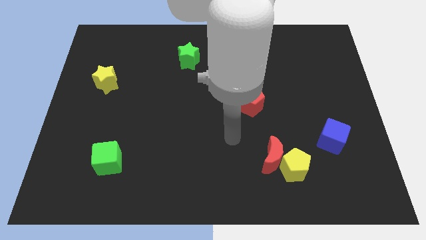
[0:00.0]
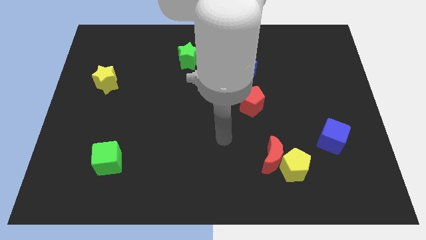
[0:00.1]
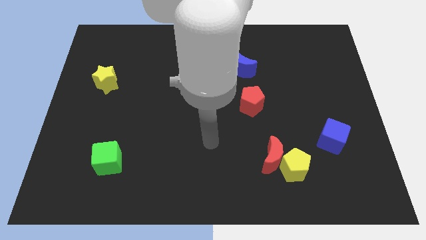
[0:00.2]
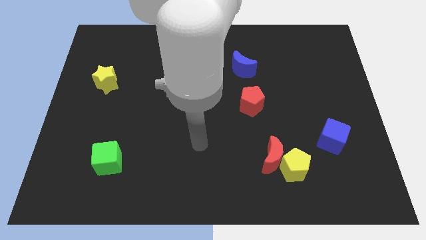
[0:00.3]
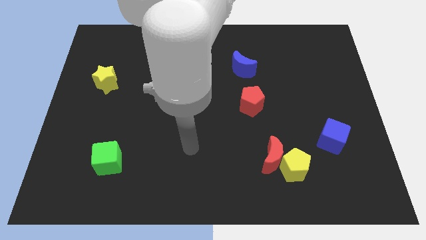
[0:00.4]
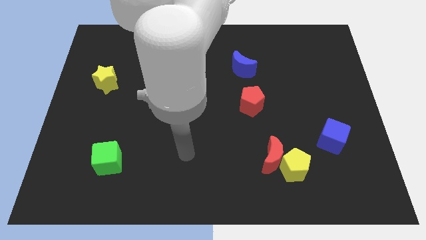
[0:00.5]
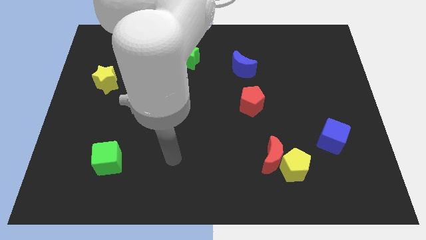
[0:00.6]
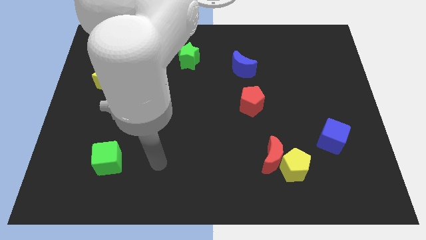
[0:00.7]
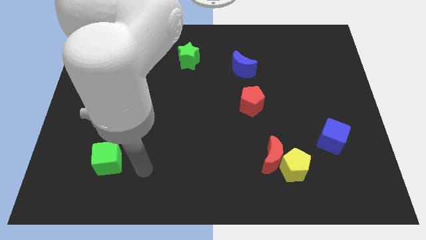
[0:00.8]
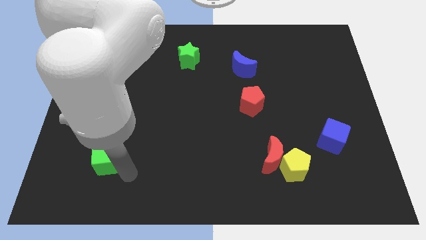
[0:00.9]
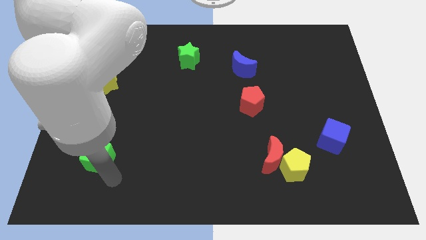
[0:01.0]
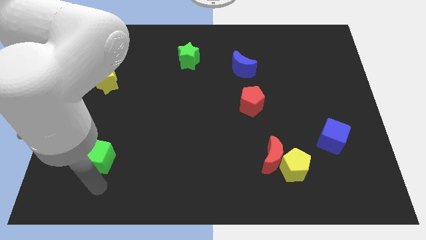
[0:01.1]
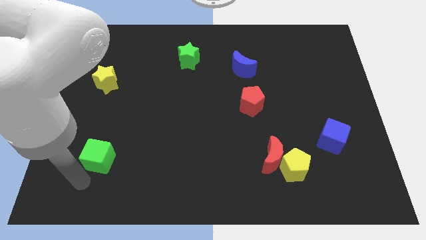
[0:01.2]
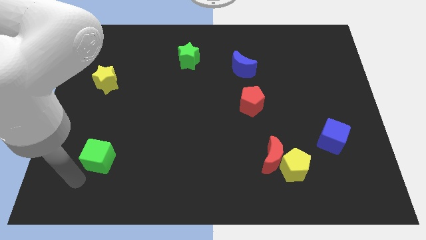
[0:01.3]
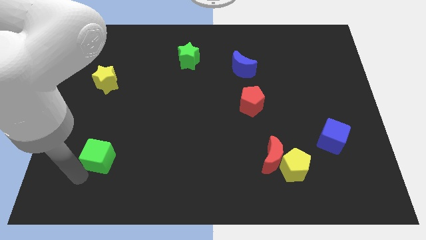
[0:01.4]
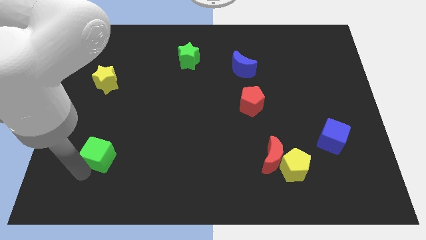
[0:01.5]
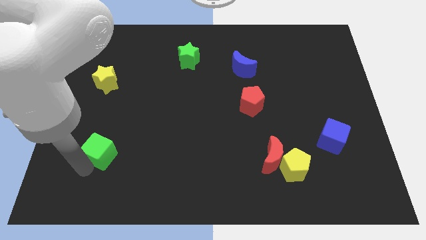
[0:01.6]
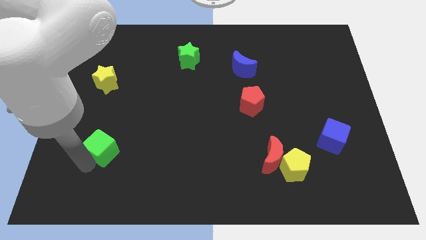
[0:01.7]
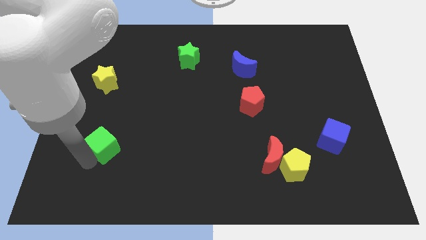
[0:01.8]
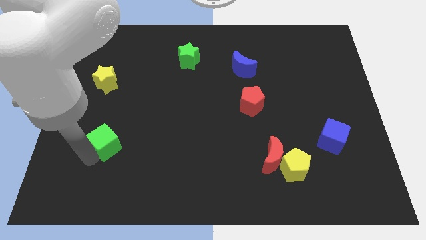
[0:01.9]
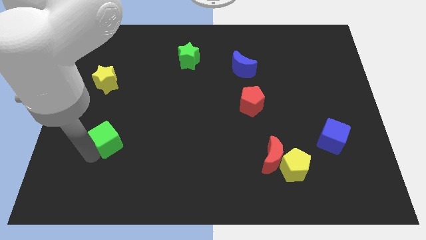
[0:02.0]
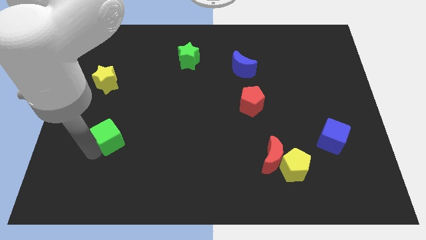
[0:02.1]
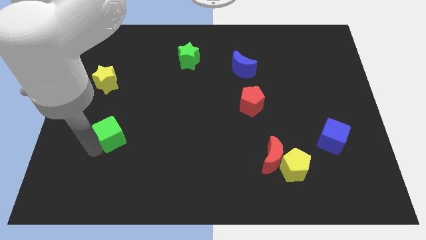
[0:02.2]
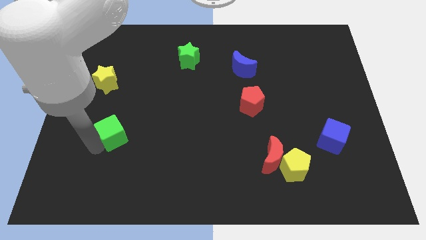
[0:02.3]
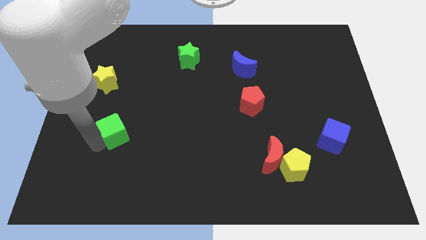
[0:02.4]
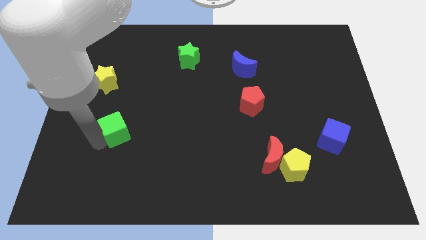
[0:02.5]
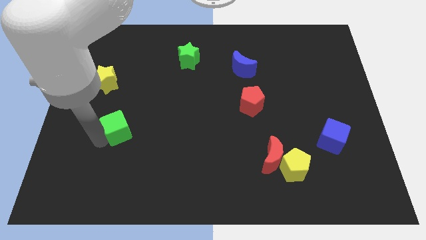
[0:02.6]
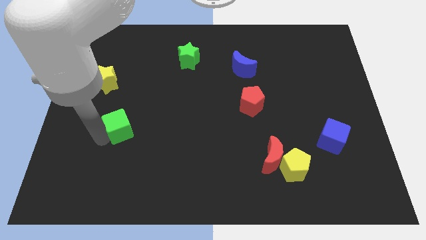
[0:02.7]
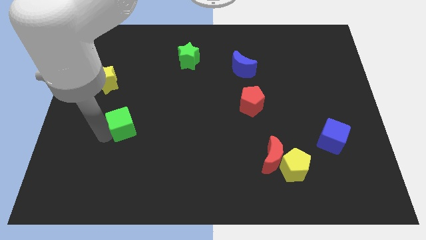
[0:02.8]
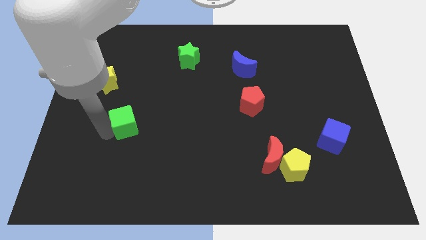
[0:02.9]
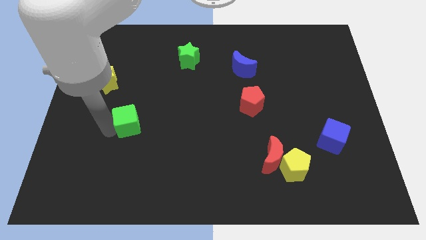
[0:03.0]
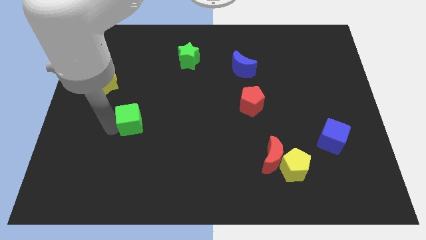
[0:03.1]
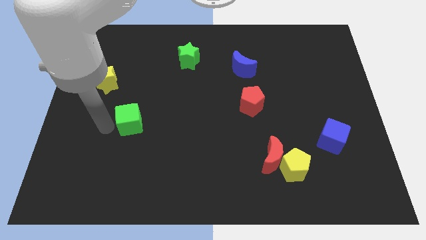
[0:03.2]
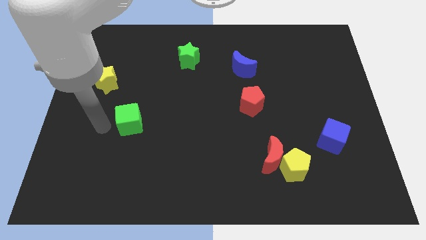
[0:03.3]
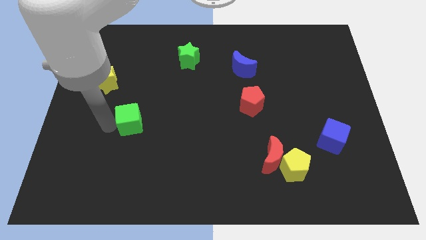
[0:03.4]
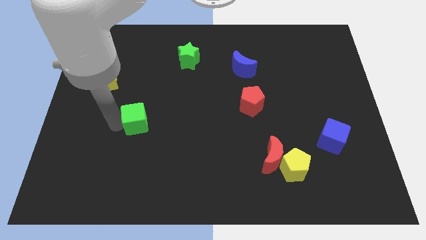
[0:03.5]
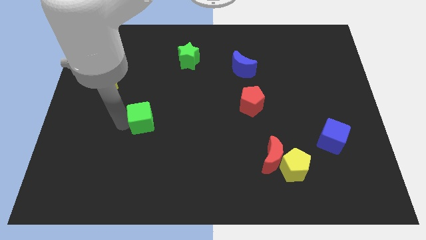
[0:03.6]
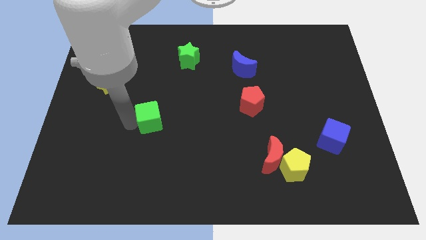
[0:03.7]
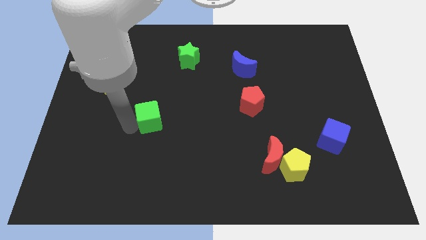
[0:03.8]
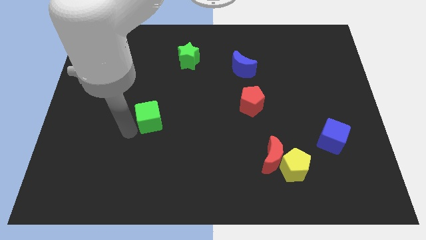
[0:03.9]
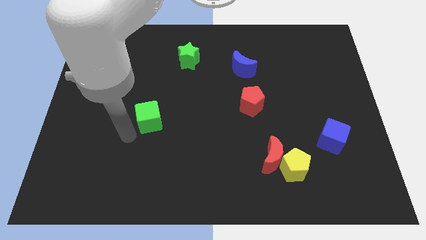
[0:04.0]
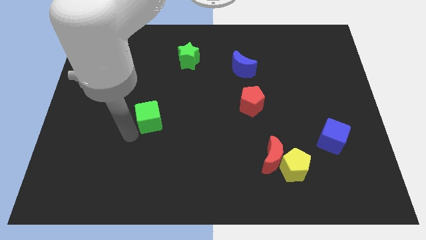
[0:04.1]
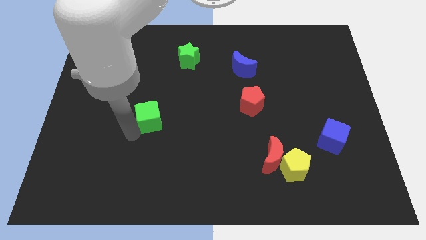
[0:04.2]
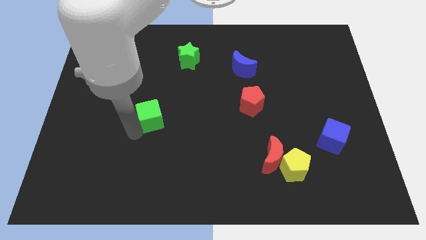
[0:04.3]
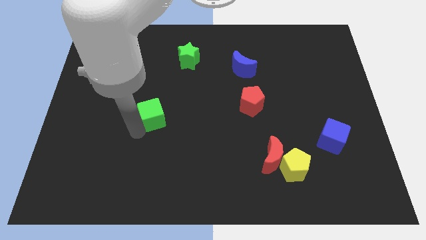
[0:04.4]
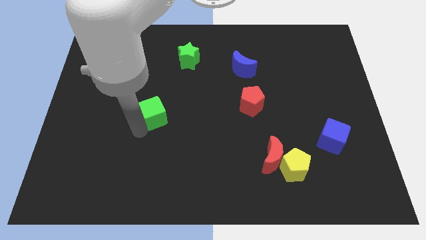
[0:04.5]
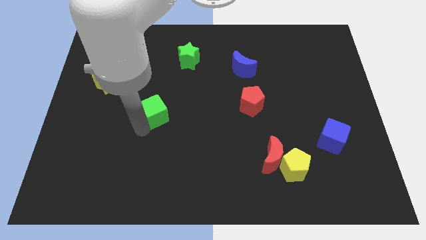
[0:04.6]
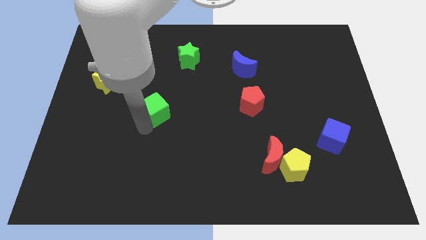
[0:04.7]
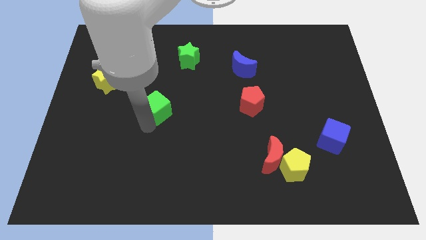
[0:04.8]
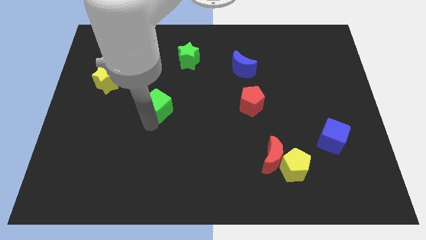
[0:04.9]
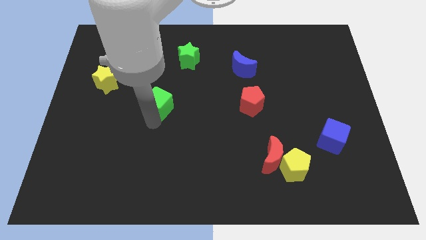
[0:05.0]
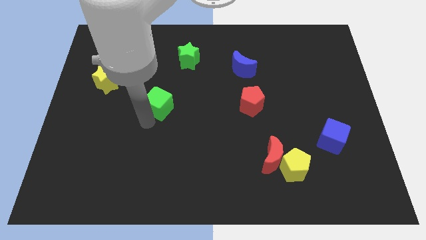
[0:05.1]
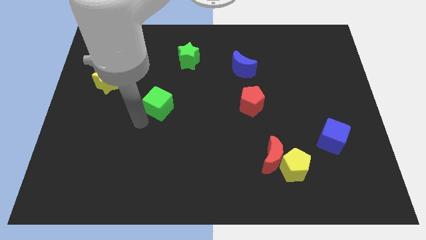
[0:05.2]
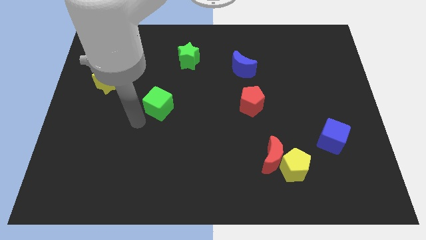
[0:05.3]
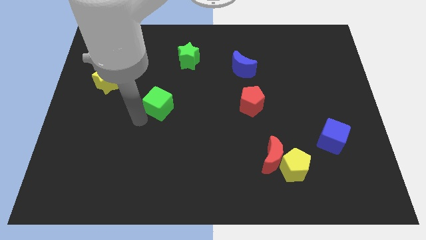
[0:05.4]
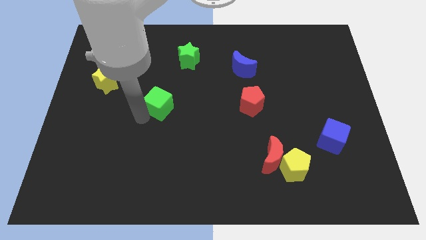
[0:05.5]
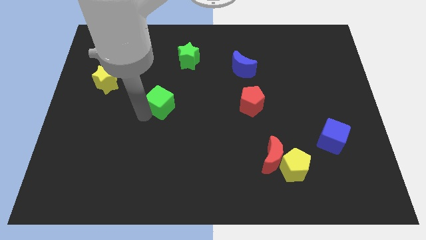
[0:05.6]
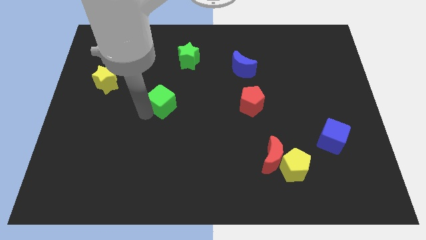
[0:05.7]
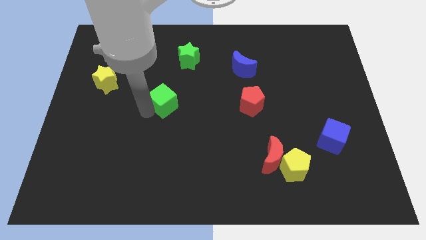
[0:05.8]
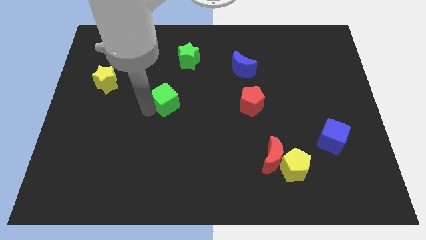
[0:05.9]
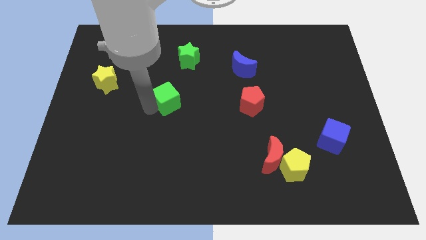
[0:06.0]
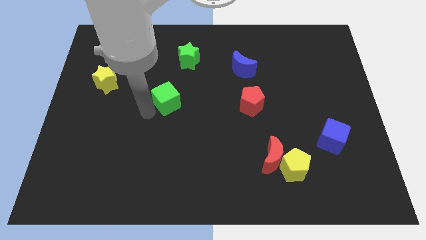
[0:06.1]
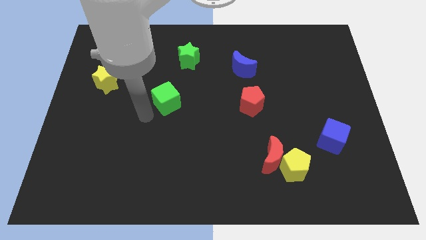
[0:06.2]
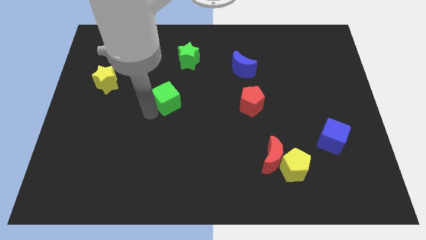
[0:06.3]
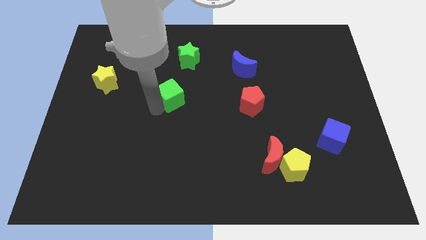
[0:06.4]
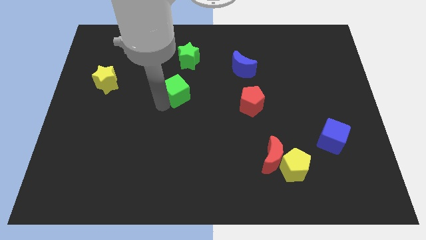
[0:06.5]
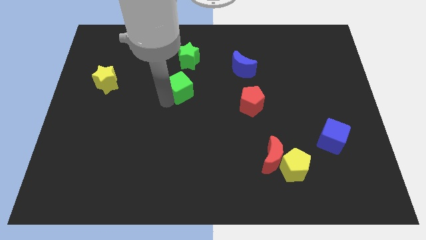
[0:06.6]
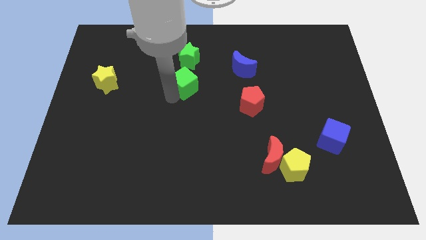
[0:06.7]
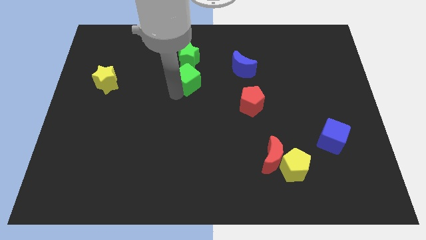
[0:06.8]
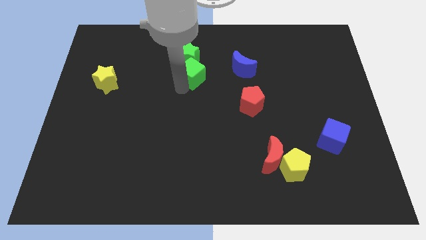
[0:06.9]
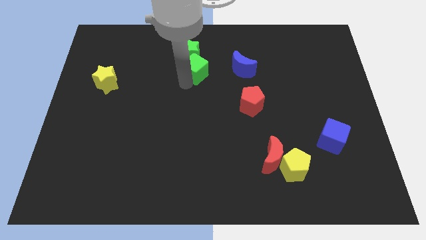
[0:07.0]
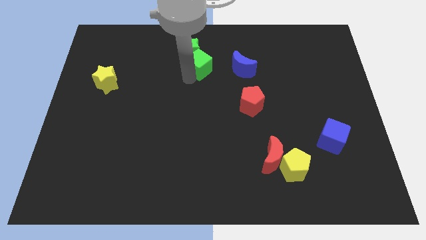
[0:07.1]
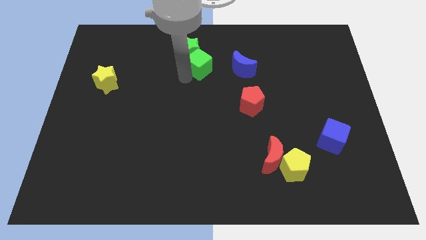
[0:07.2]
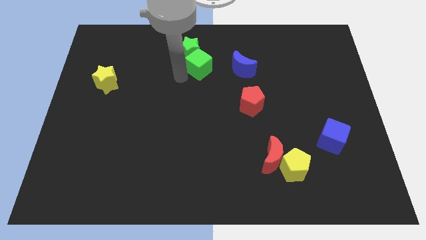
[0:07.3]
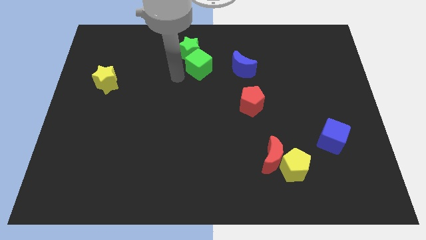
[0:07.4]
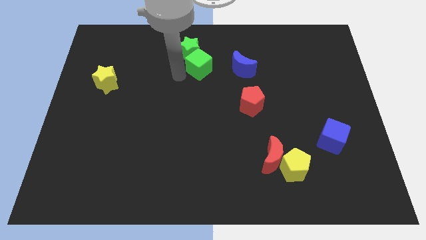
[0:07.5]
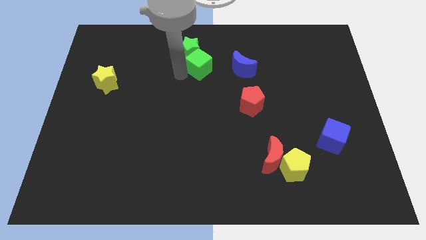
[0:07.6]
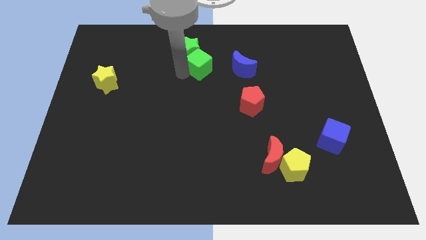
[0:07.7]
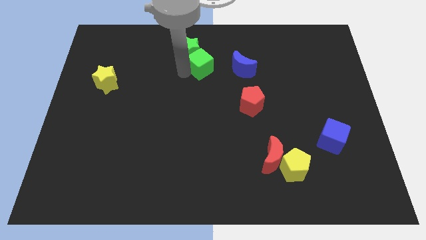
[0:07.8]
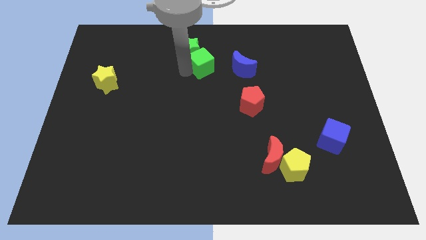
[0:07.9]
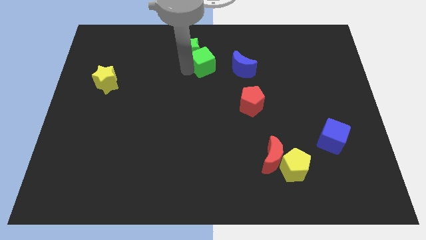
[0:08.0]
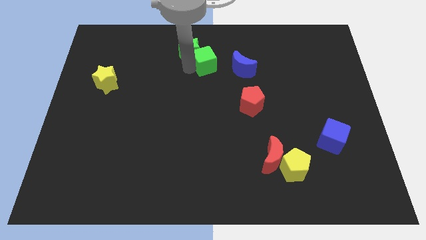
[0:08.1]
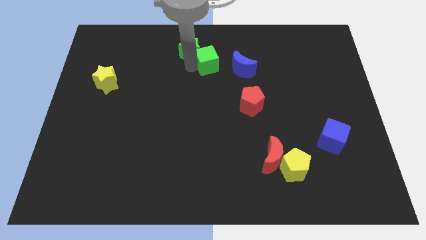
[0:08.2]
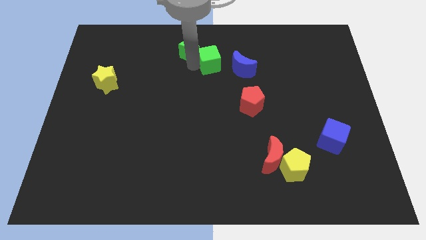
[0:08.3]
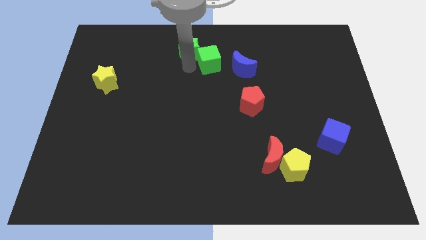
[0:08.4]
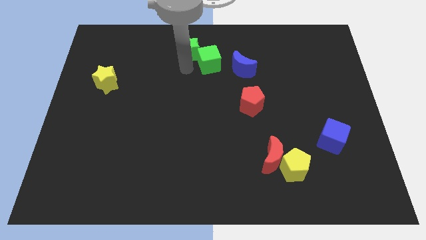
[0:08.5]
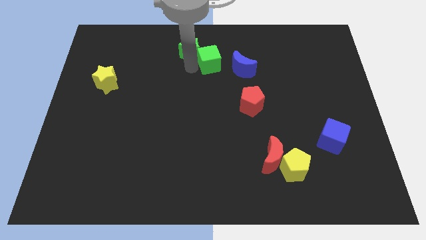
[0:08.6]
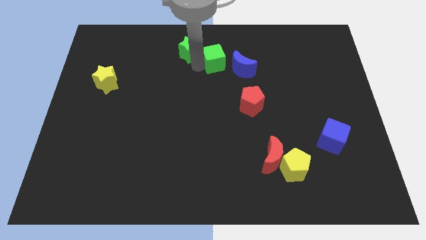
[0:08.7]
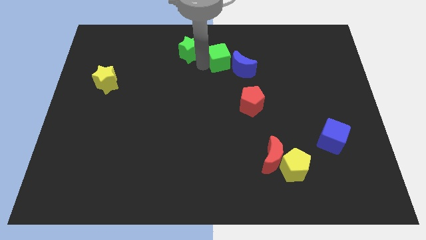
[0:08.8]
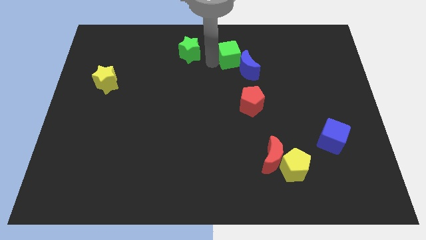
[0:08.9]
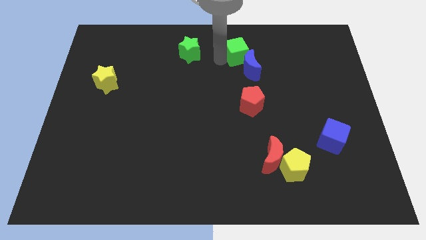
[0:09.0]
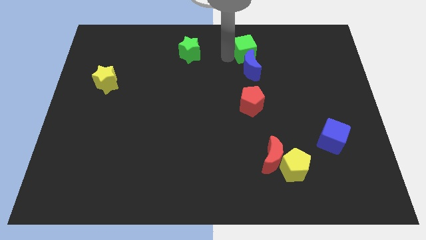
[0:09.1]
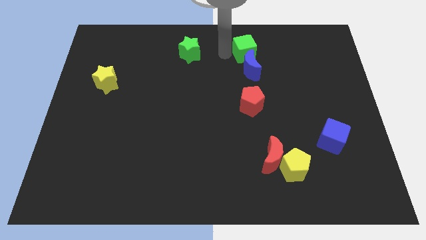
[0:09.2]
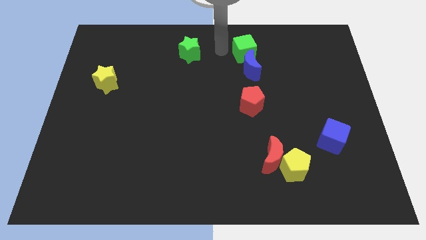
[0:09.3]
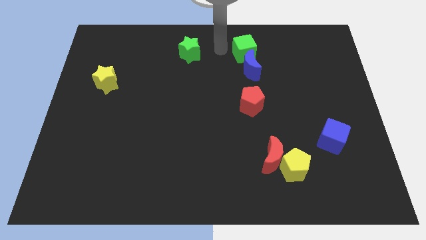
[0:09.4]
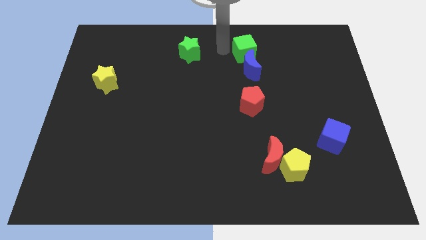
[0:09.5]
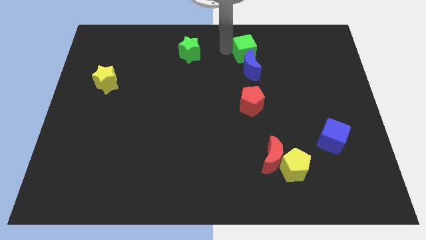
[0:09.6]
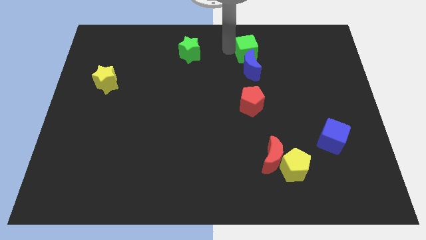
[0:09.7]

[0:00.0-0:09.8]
push the green cube diagonally up and to the right of the blue moon
